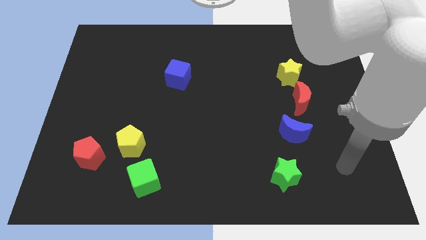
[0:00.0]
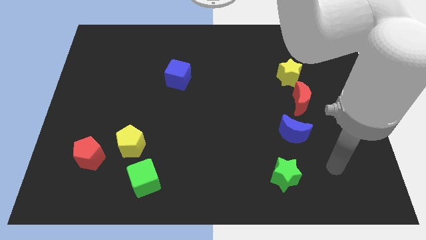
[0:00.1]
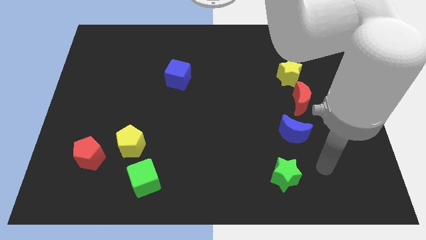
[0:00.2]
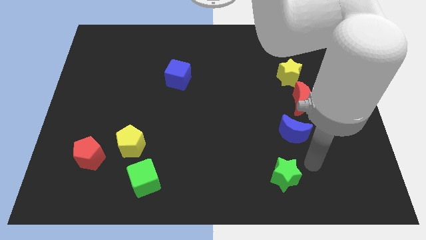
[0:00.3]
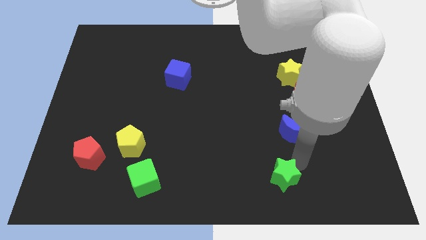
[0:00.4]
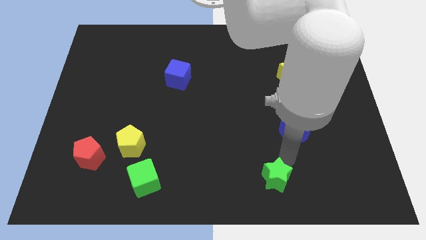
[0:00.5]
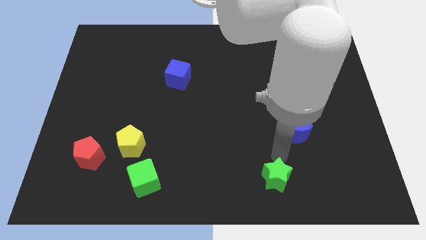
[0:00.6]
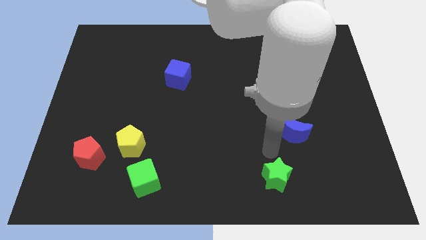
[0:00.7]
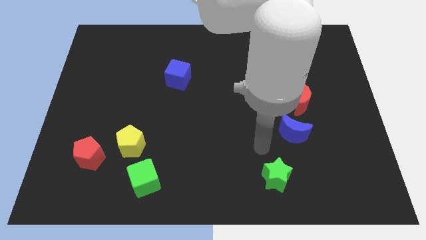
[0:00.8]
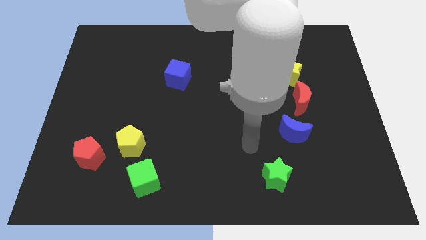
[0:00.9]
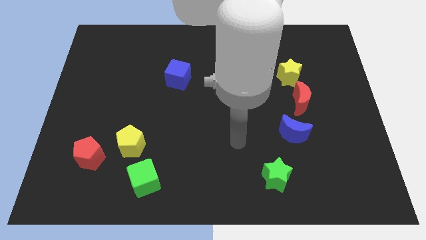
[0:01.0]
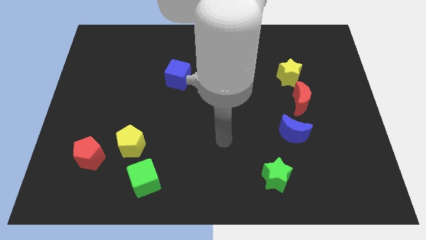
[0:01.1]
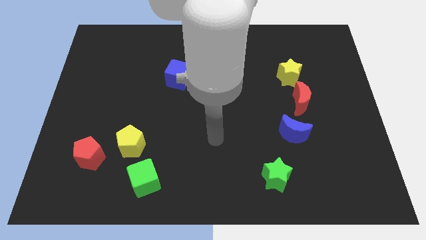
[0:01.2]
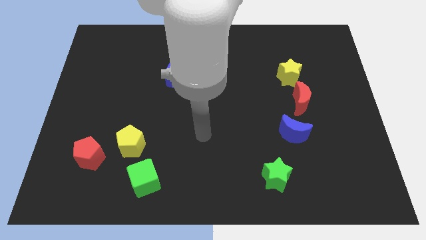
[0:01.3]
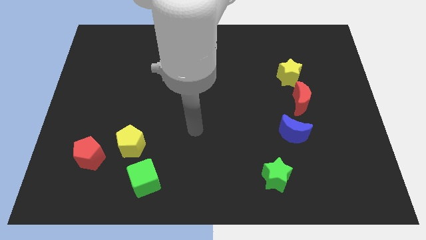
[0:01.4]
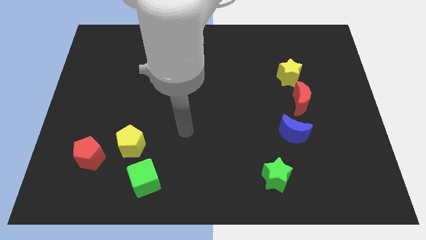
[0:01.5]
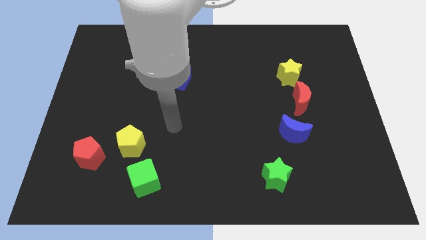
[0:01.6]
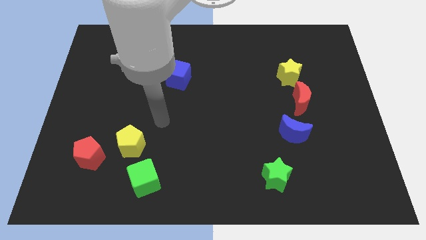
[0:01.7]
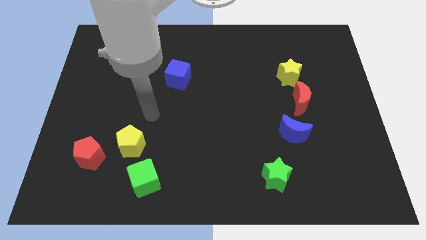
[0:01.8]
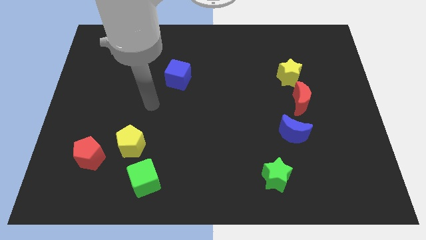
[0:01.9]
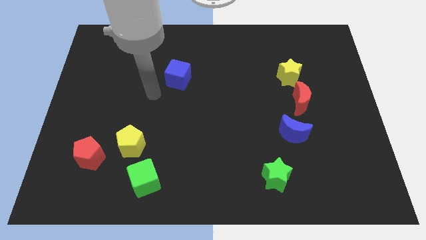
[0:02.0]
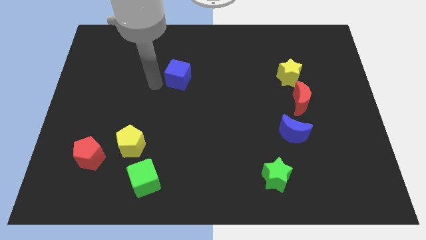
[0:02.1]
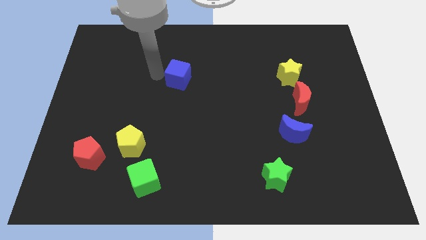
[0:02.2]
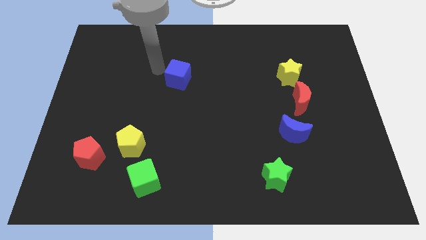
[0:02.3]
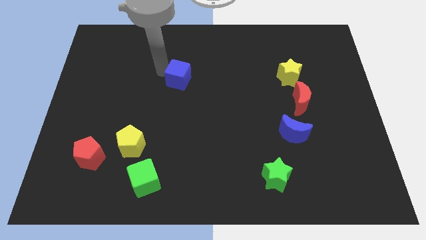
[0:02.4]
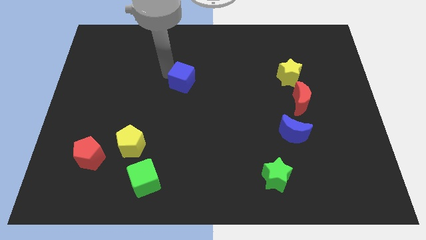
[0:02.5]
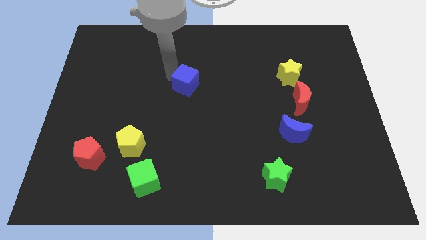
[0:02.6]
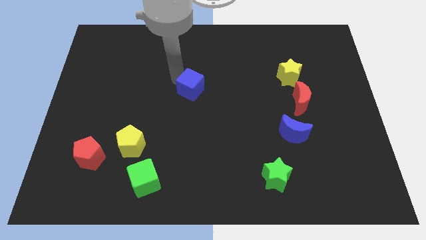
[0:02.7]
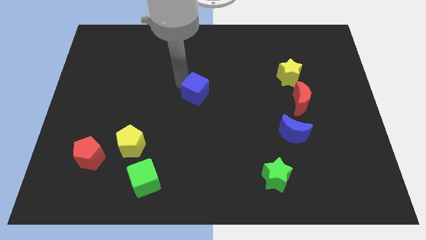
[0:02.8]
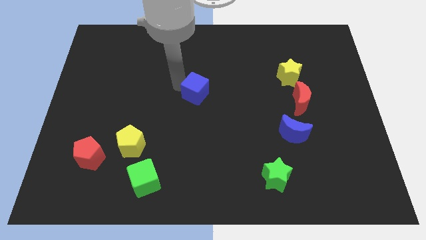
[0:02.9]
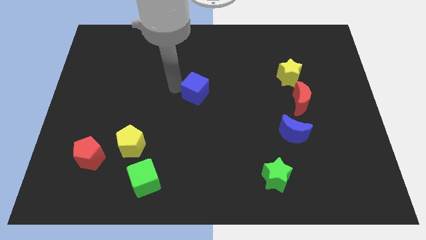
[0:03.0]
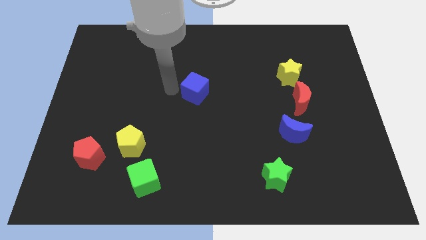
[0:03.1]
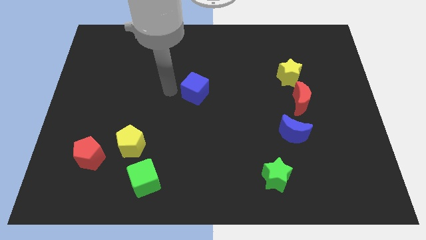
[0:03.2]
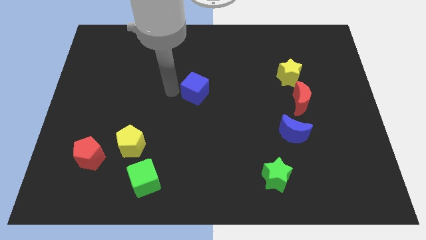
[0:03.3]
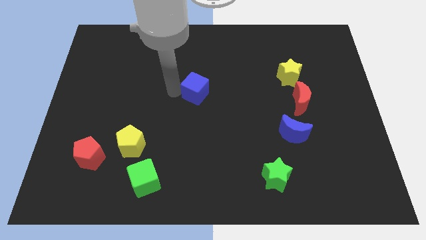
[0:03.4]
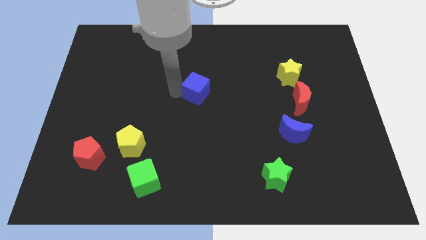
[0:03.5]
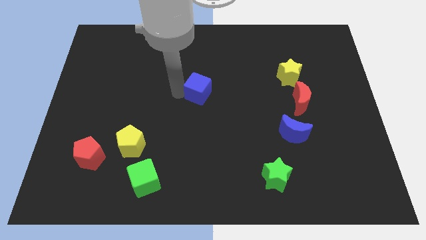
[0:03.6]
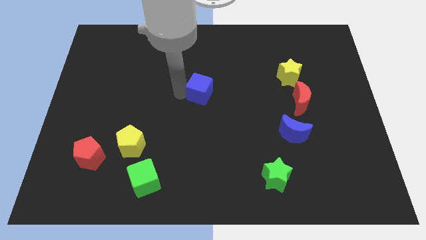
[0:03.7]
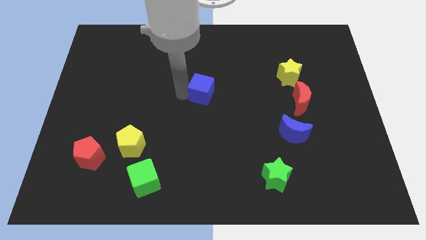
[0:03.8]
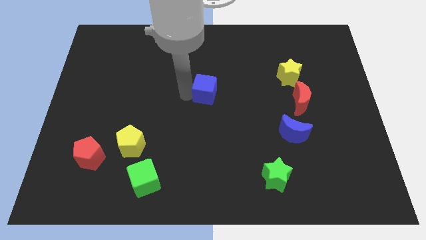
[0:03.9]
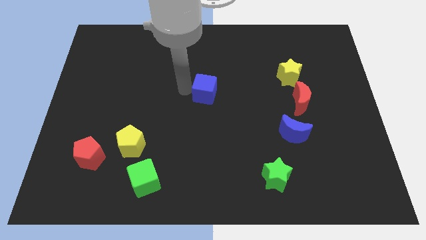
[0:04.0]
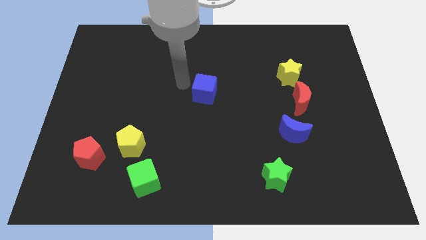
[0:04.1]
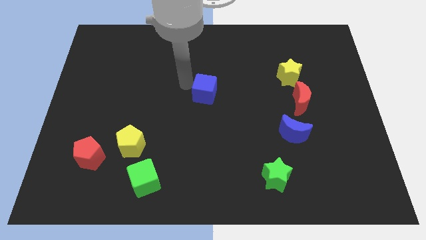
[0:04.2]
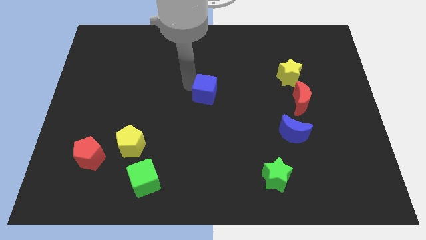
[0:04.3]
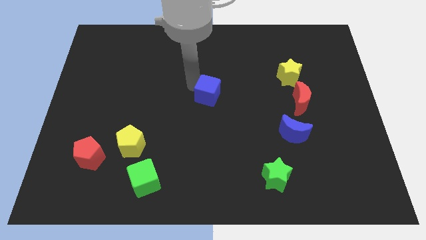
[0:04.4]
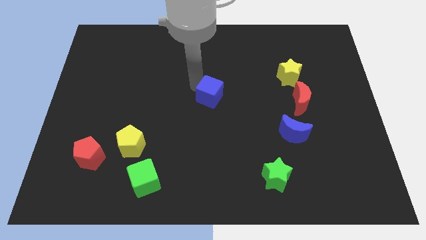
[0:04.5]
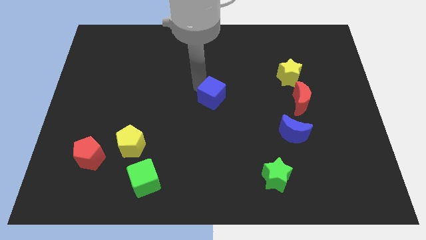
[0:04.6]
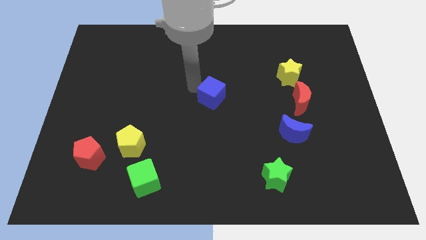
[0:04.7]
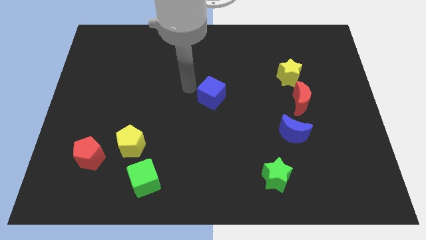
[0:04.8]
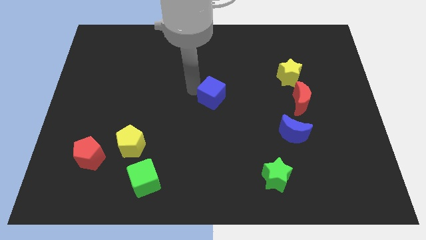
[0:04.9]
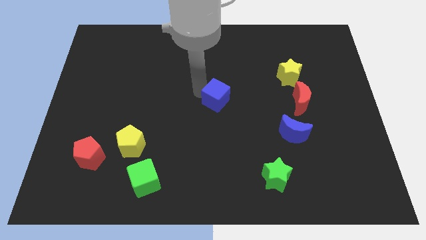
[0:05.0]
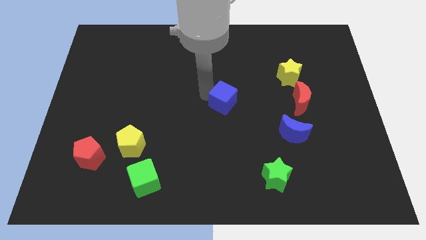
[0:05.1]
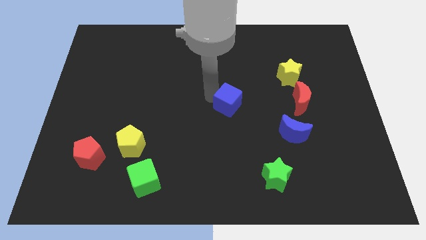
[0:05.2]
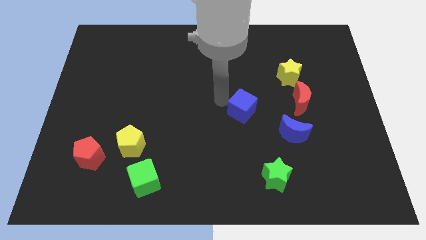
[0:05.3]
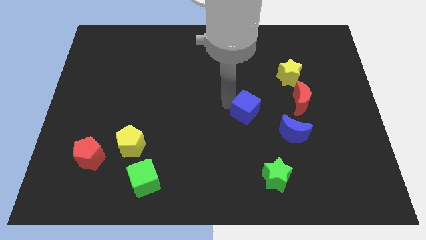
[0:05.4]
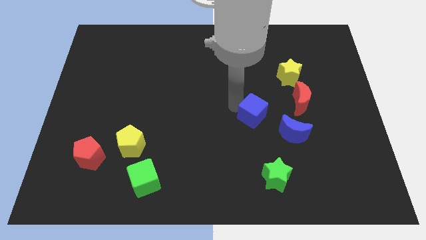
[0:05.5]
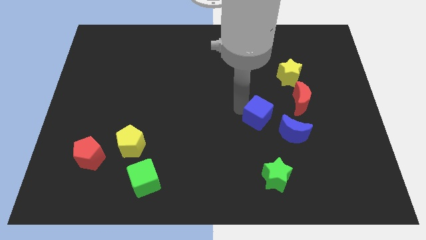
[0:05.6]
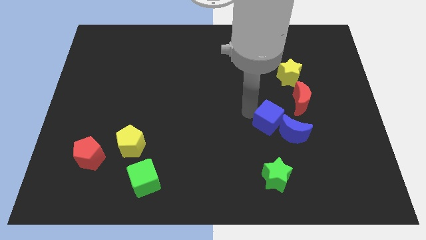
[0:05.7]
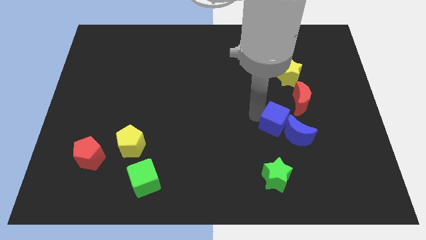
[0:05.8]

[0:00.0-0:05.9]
put the blue cube next to the blue moon

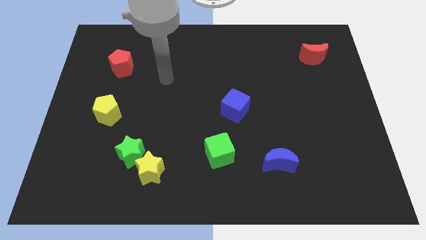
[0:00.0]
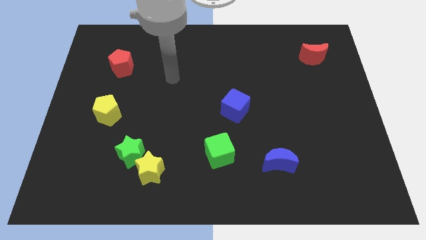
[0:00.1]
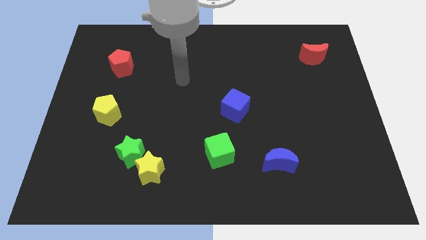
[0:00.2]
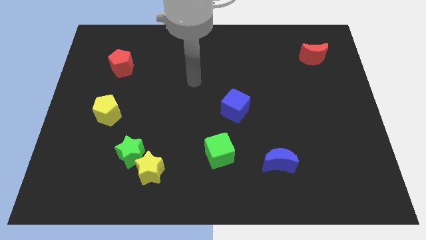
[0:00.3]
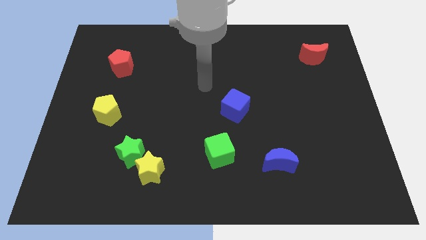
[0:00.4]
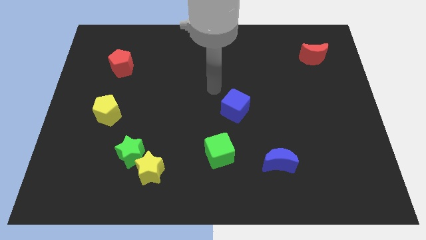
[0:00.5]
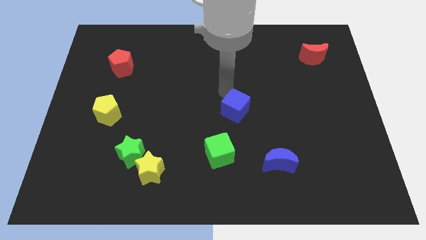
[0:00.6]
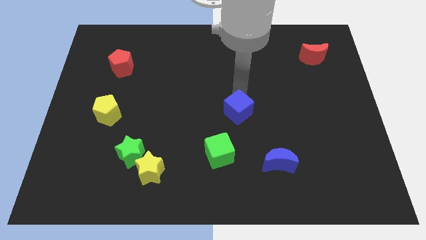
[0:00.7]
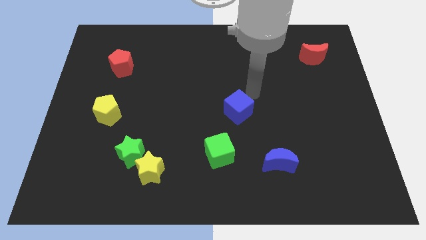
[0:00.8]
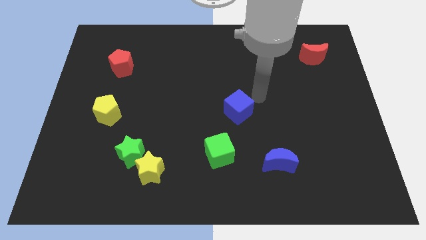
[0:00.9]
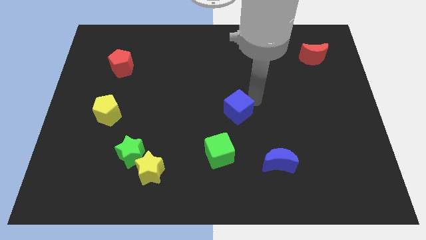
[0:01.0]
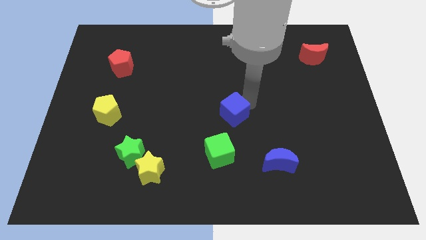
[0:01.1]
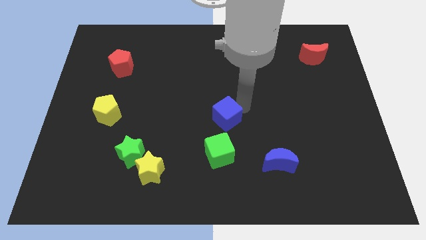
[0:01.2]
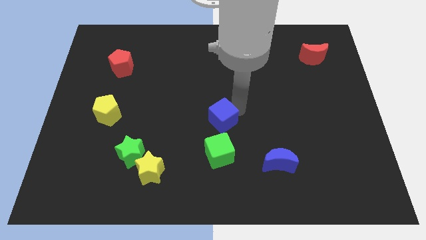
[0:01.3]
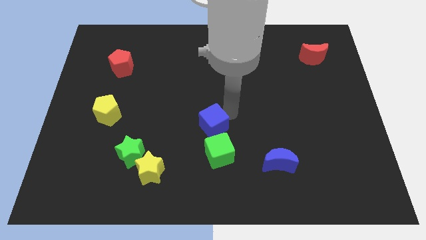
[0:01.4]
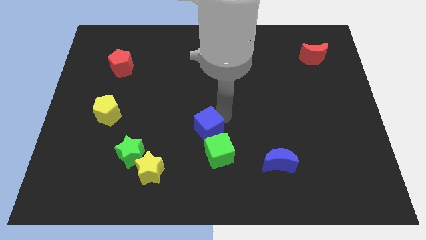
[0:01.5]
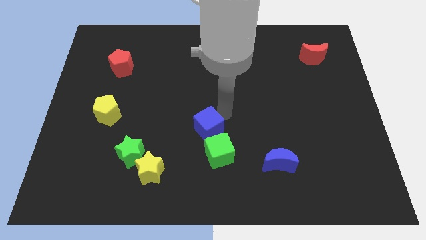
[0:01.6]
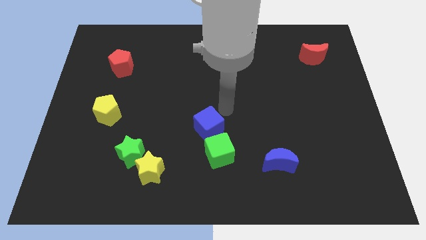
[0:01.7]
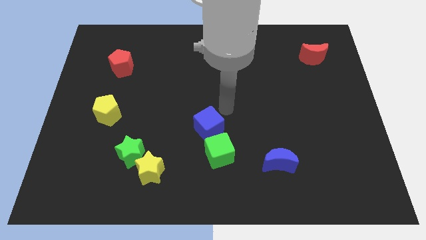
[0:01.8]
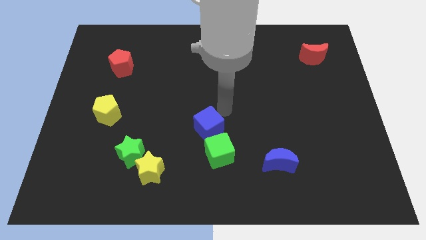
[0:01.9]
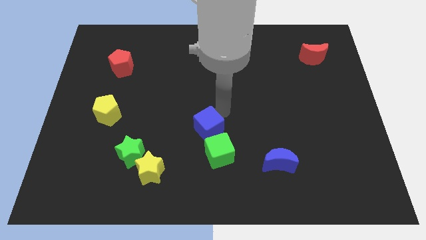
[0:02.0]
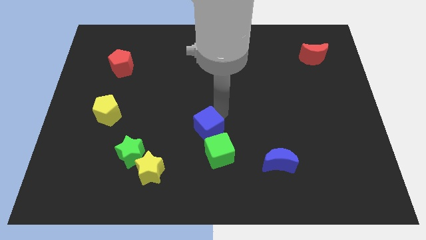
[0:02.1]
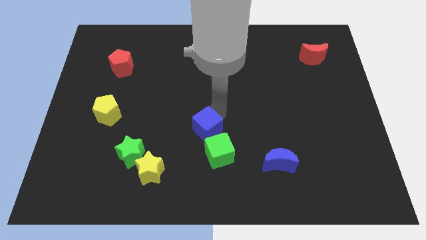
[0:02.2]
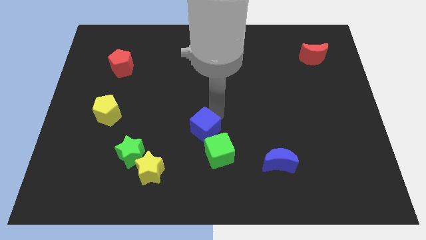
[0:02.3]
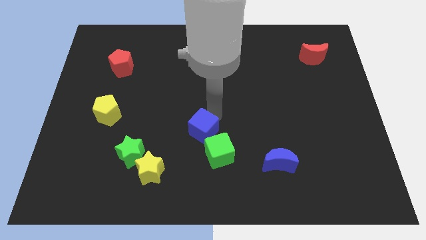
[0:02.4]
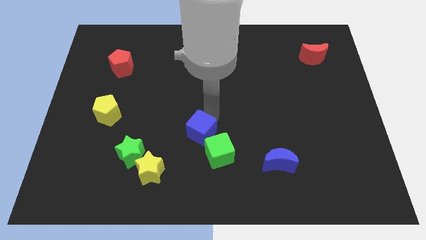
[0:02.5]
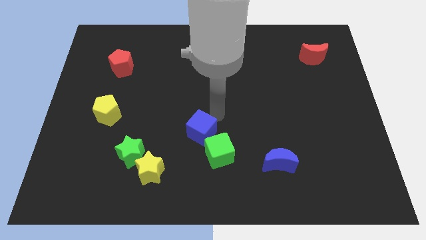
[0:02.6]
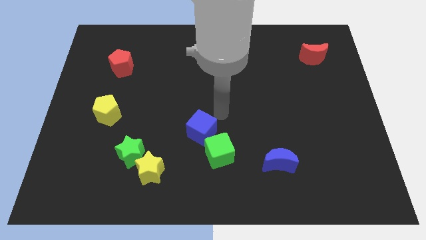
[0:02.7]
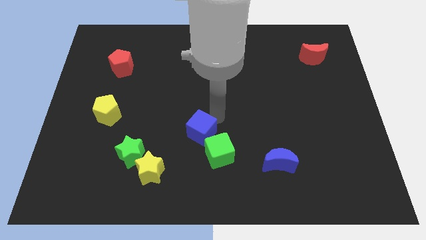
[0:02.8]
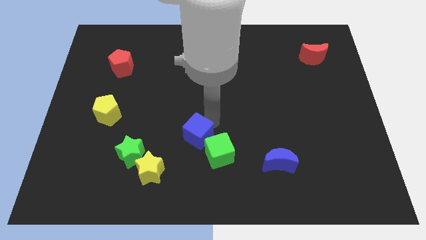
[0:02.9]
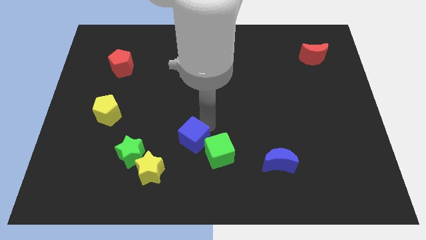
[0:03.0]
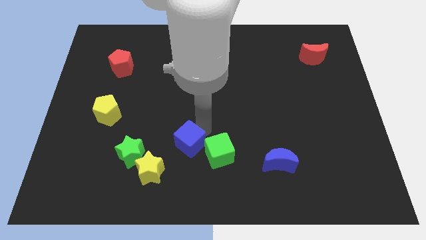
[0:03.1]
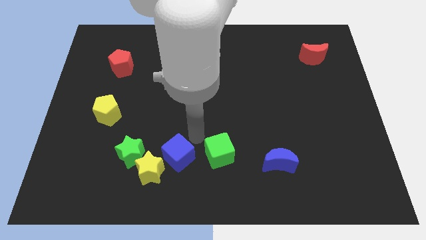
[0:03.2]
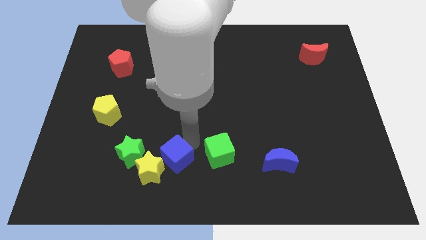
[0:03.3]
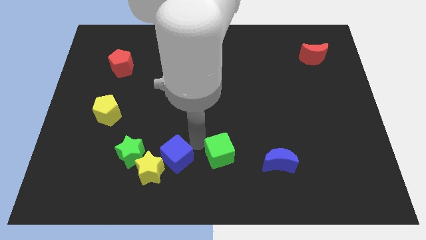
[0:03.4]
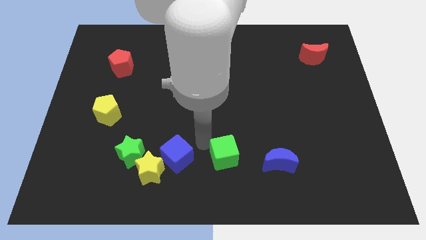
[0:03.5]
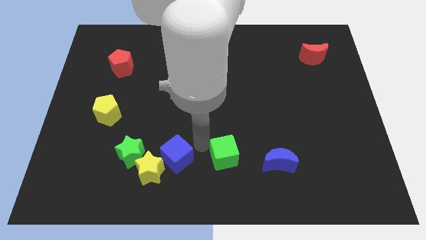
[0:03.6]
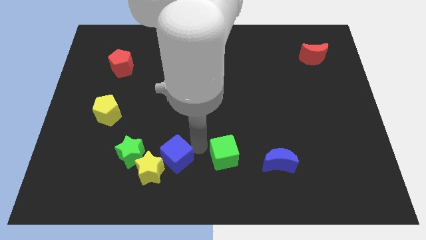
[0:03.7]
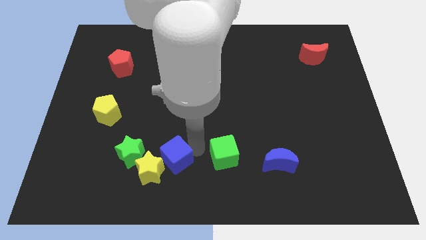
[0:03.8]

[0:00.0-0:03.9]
move the blue cube towards the yellow star
